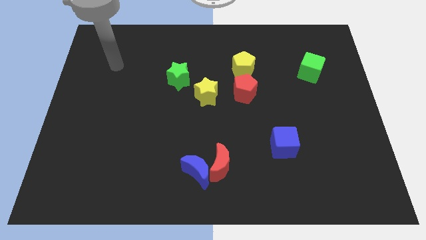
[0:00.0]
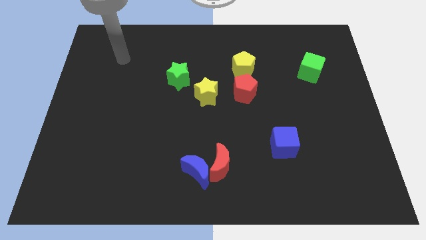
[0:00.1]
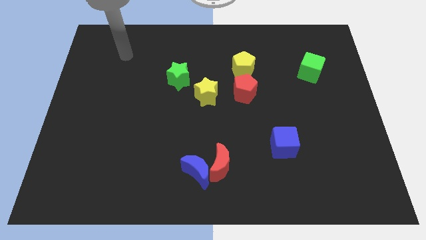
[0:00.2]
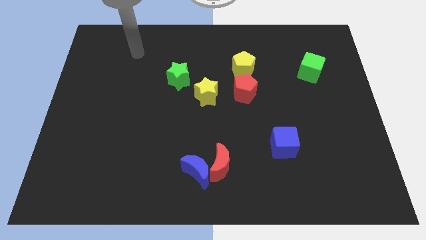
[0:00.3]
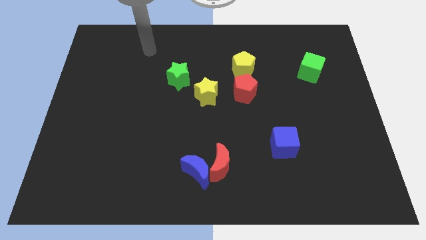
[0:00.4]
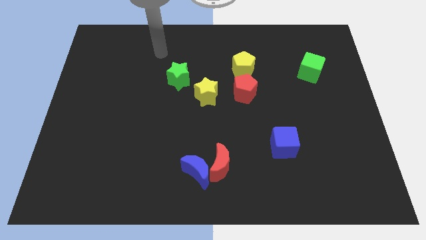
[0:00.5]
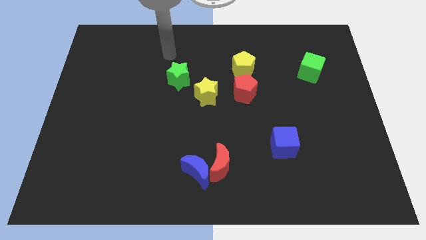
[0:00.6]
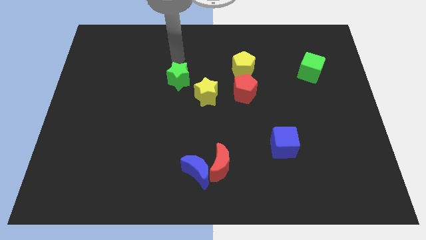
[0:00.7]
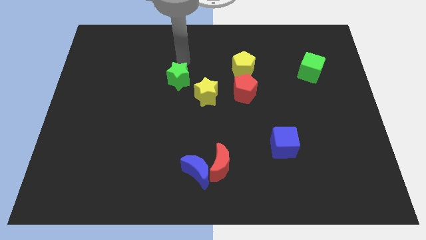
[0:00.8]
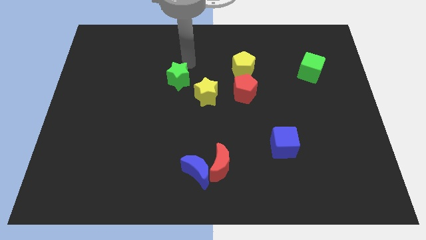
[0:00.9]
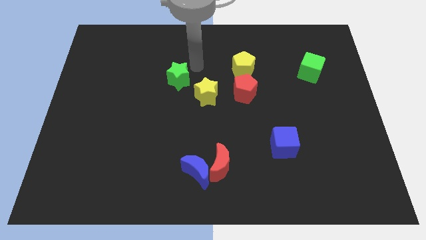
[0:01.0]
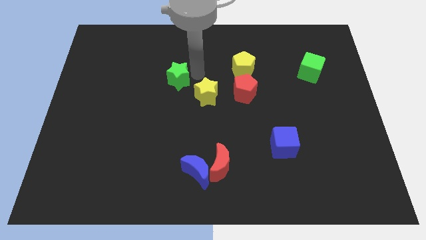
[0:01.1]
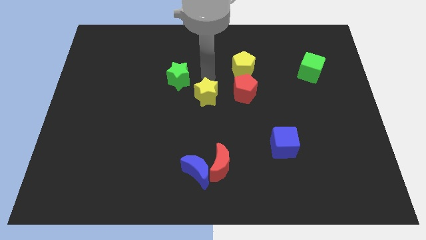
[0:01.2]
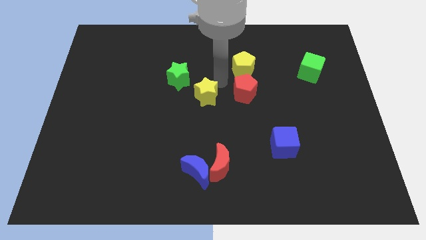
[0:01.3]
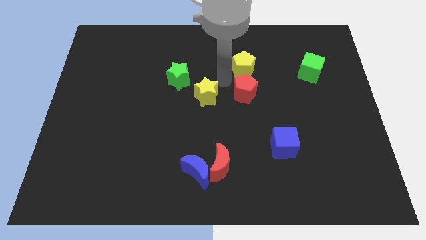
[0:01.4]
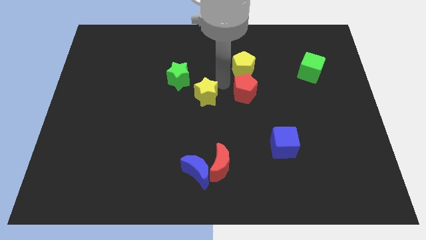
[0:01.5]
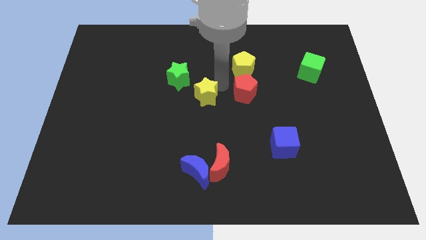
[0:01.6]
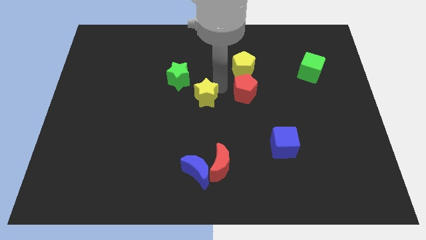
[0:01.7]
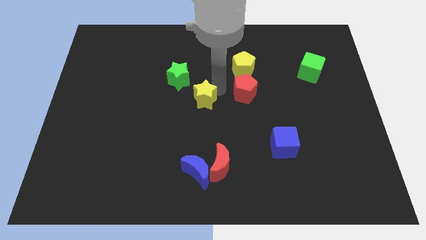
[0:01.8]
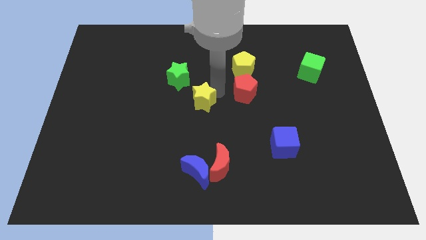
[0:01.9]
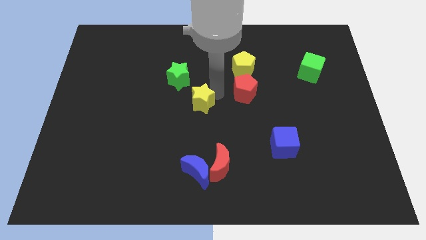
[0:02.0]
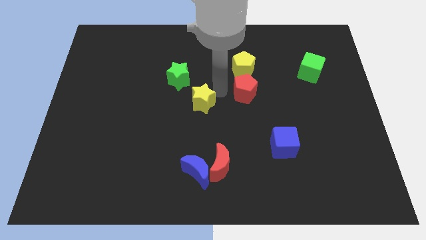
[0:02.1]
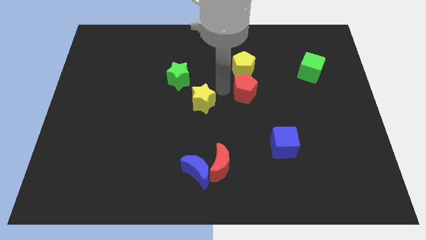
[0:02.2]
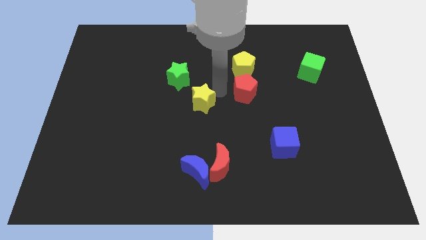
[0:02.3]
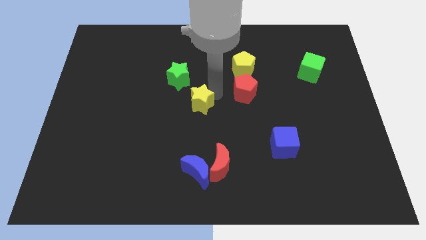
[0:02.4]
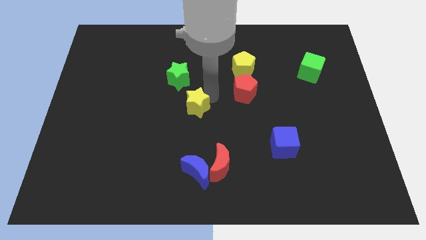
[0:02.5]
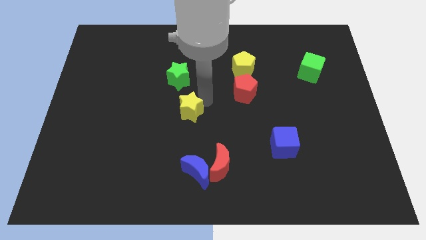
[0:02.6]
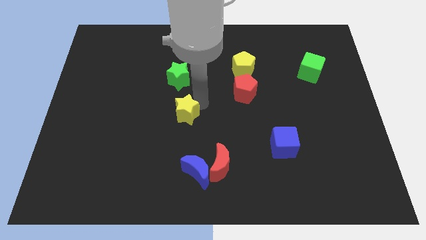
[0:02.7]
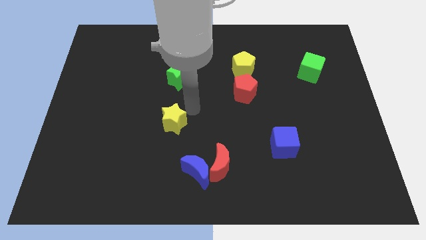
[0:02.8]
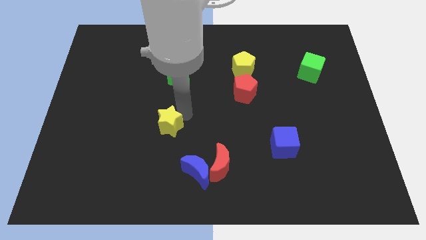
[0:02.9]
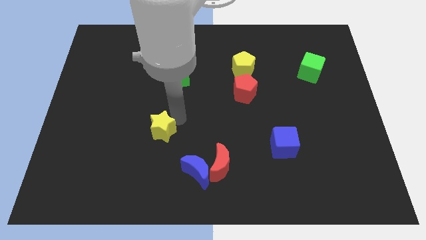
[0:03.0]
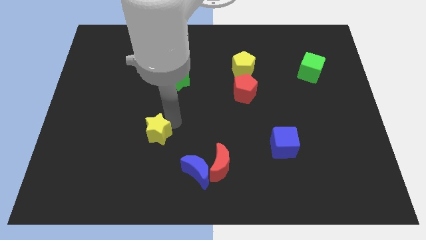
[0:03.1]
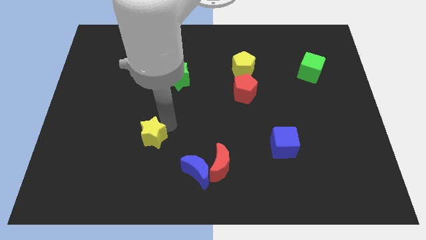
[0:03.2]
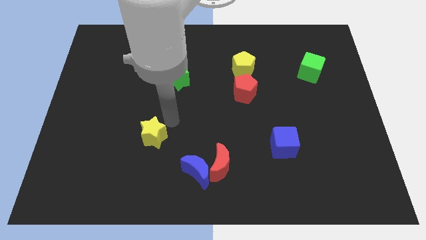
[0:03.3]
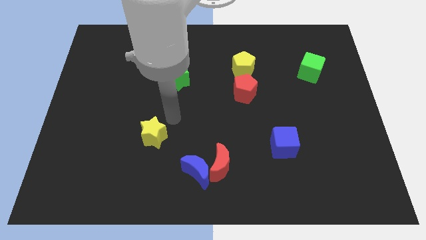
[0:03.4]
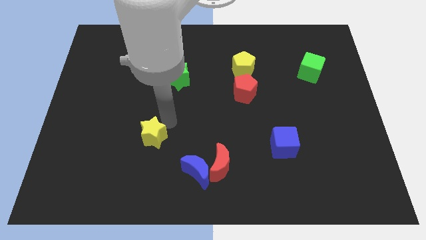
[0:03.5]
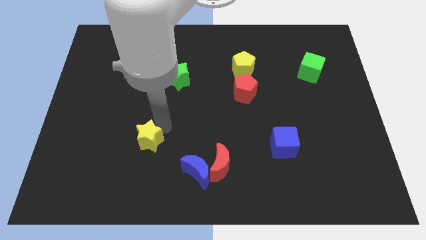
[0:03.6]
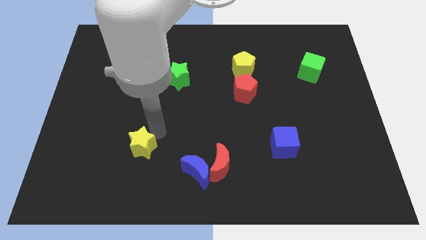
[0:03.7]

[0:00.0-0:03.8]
slide the yellow star diagonally downwards and to the left

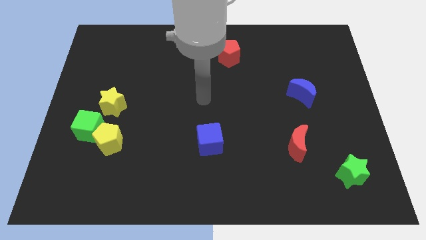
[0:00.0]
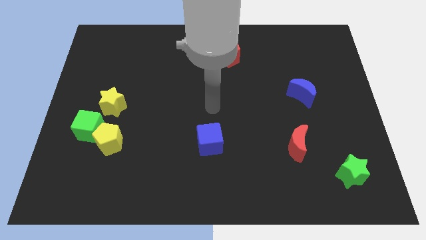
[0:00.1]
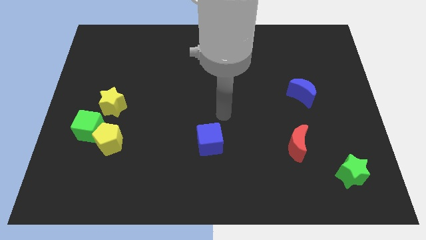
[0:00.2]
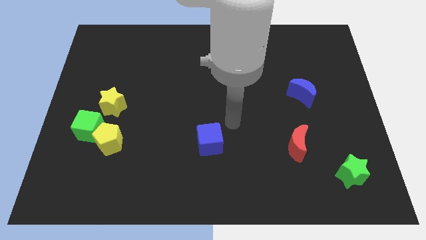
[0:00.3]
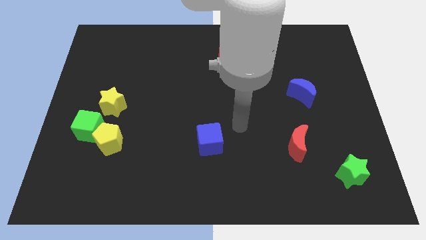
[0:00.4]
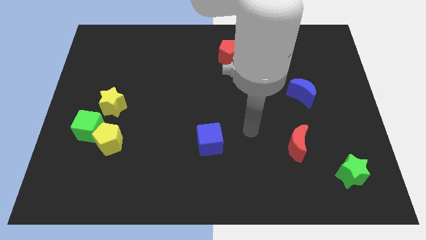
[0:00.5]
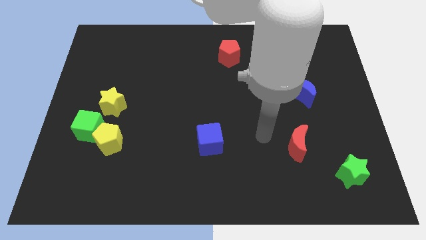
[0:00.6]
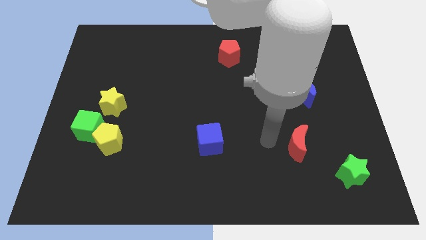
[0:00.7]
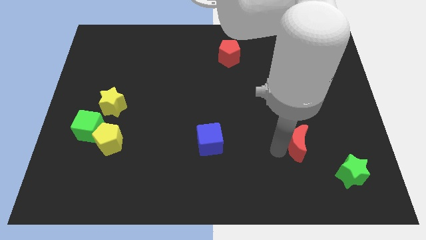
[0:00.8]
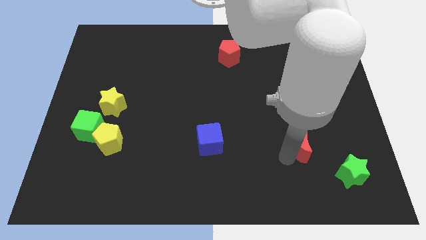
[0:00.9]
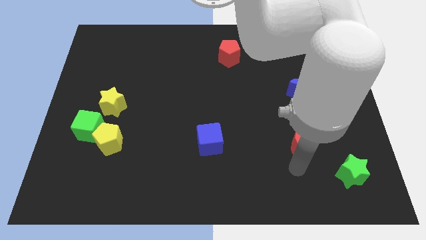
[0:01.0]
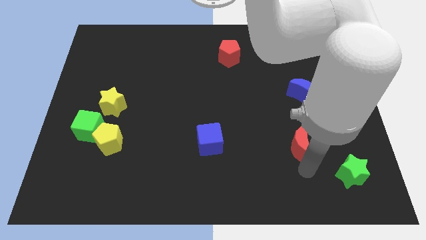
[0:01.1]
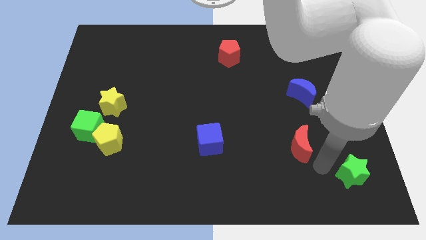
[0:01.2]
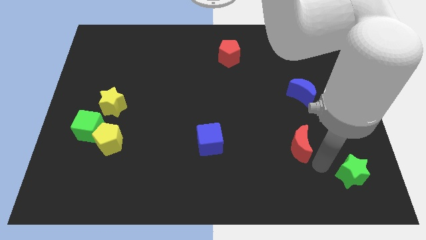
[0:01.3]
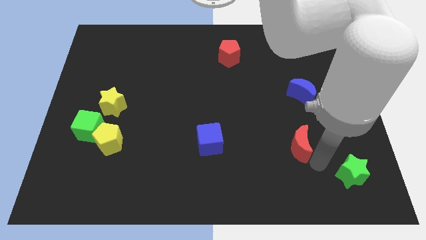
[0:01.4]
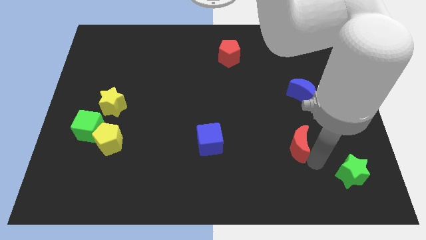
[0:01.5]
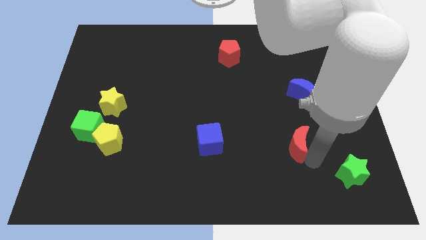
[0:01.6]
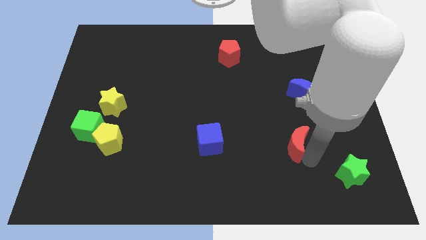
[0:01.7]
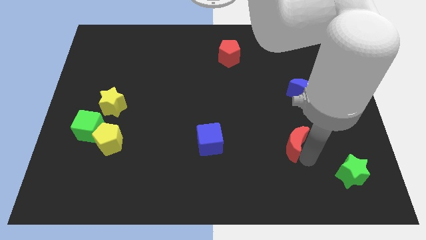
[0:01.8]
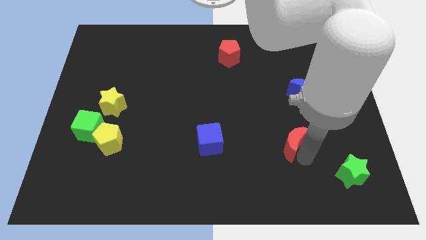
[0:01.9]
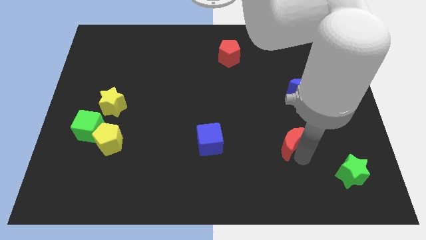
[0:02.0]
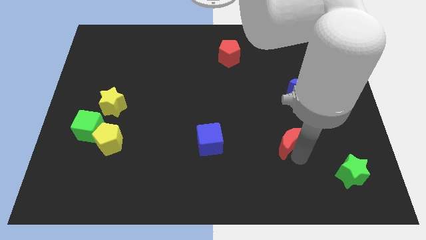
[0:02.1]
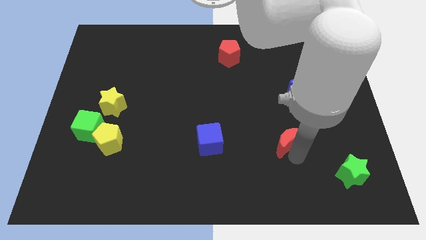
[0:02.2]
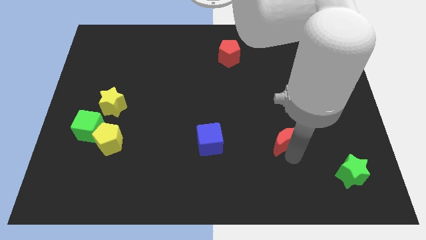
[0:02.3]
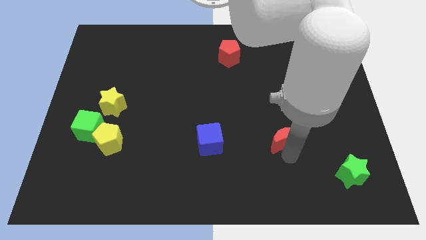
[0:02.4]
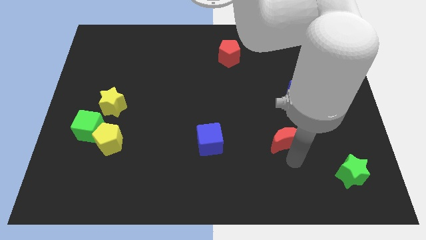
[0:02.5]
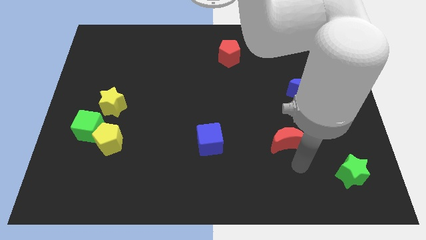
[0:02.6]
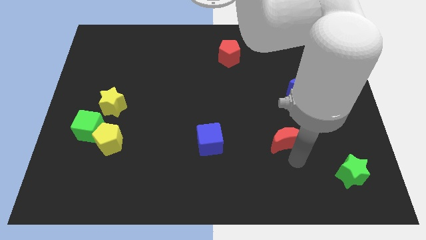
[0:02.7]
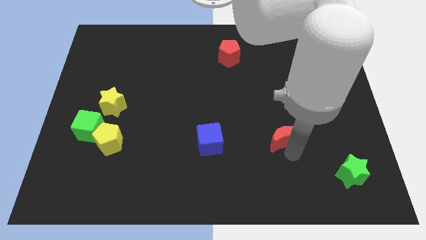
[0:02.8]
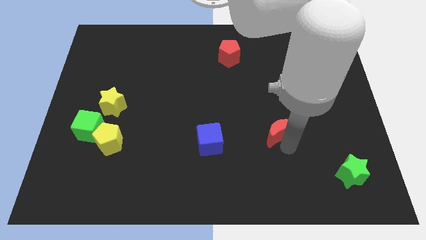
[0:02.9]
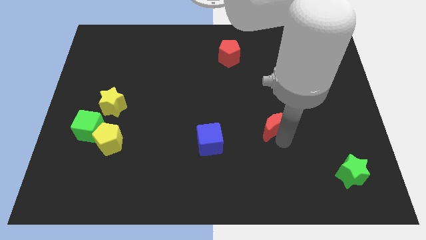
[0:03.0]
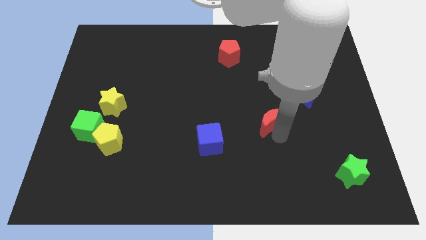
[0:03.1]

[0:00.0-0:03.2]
slightly slide the red moon upwards and left diagonally

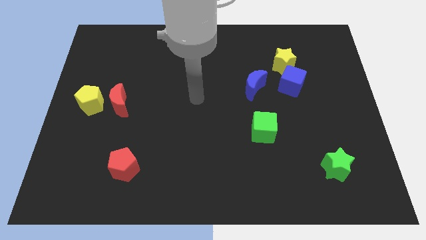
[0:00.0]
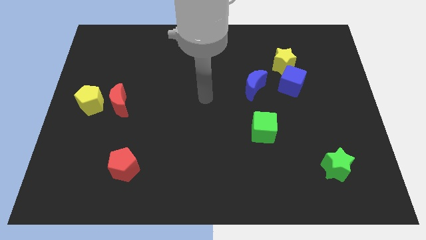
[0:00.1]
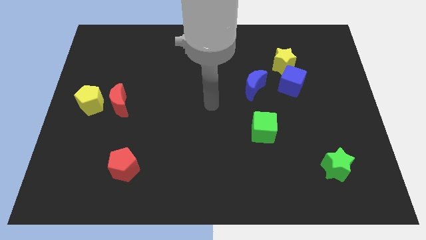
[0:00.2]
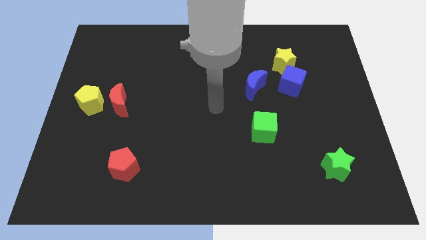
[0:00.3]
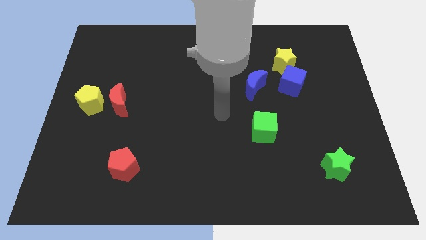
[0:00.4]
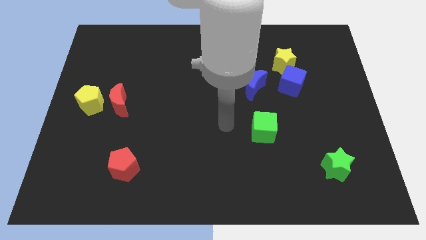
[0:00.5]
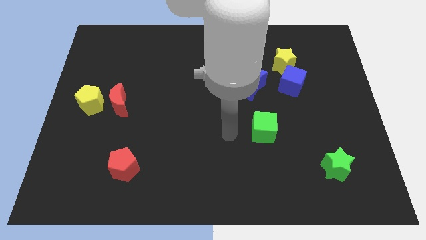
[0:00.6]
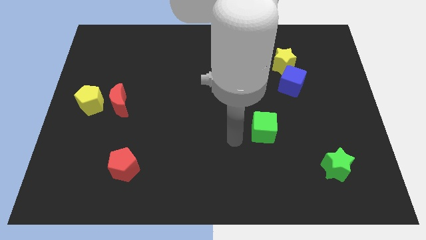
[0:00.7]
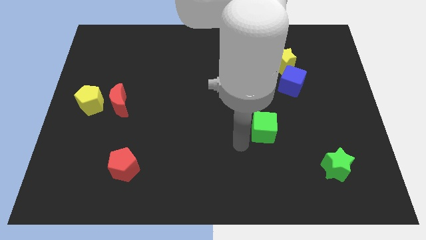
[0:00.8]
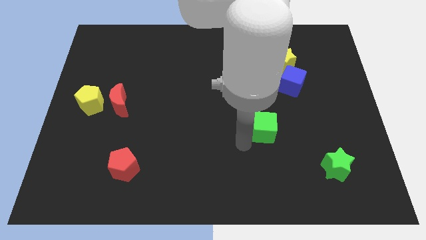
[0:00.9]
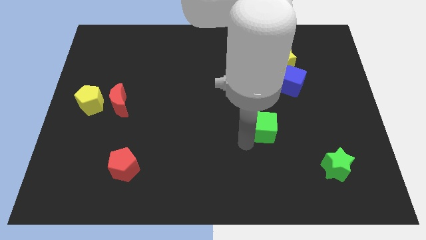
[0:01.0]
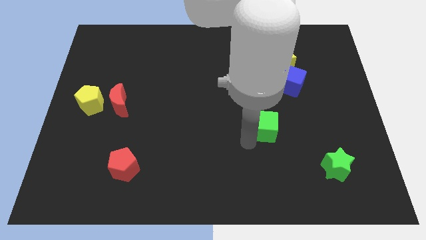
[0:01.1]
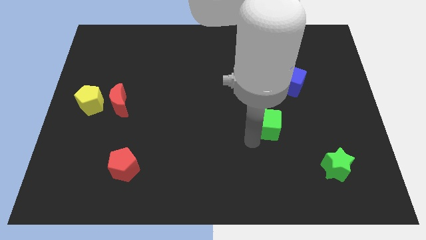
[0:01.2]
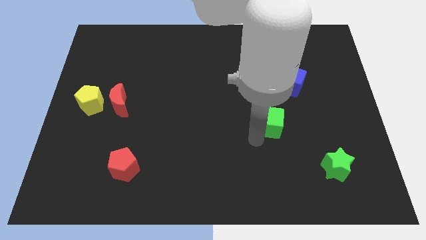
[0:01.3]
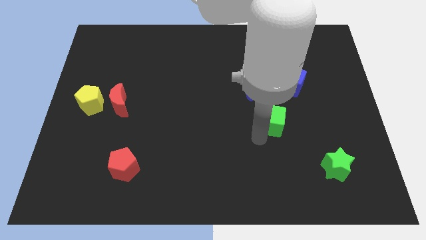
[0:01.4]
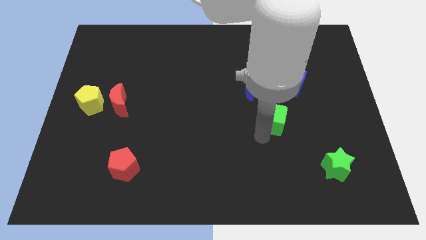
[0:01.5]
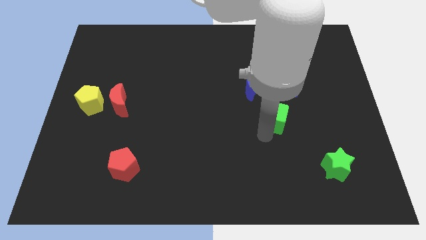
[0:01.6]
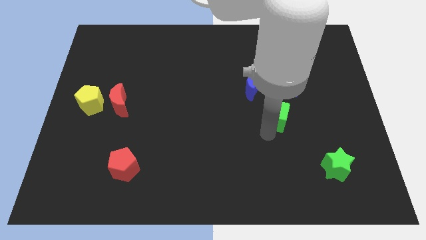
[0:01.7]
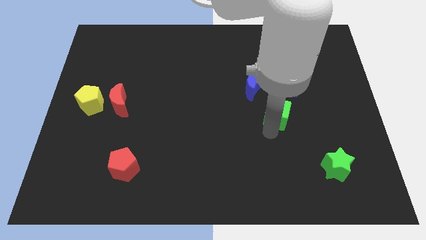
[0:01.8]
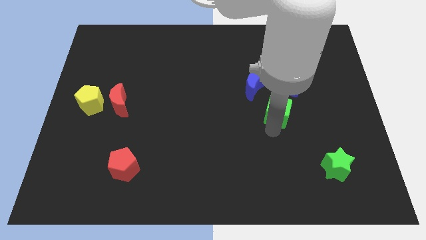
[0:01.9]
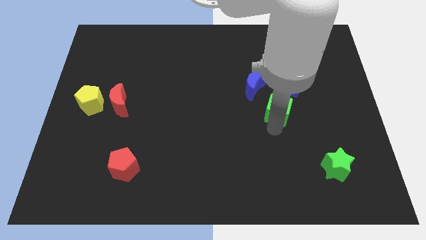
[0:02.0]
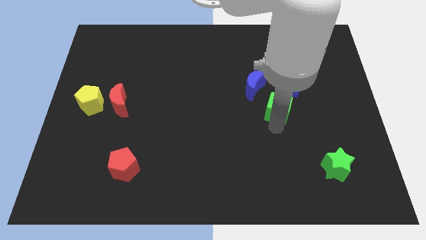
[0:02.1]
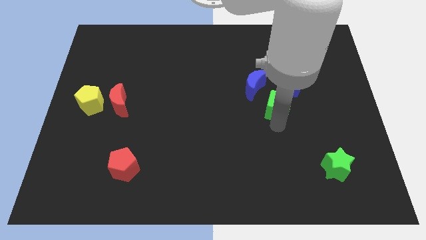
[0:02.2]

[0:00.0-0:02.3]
slide the green cube up and to the right a little
